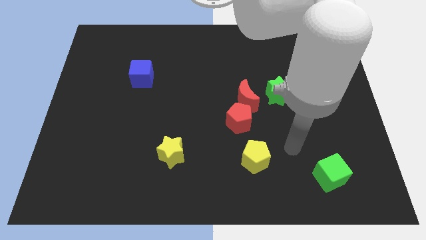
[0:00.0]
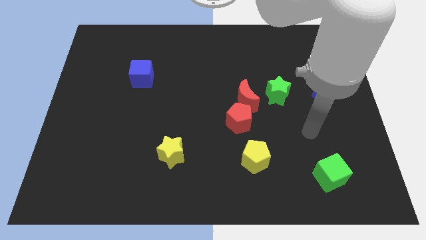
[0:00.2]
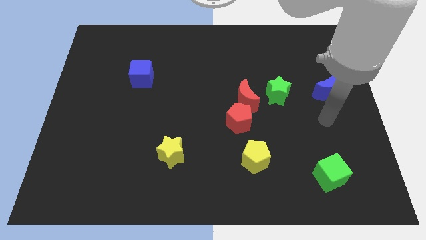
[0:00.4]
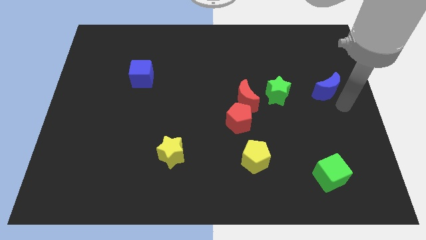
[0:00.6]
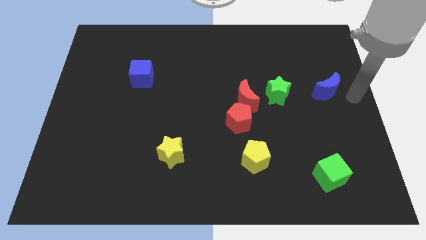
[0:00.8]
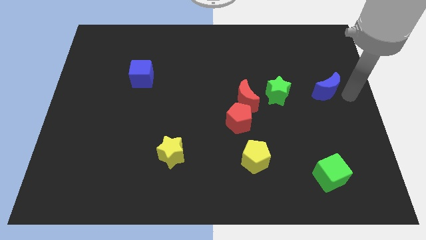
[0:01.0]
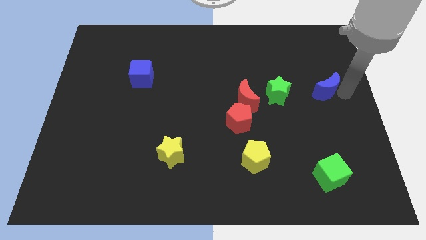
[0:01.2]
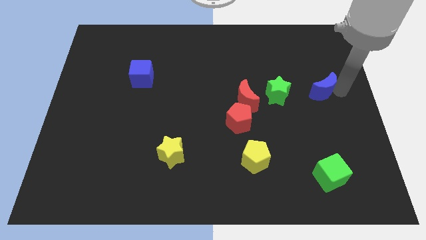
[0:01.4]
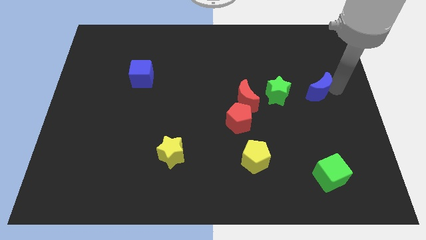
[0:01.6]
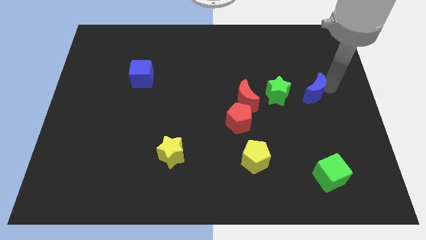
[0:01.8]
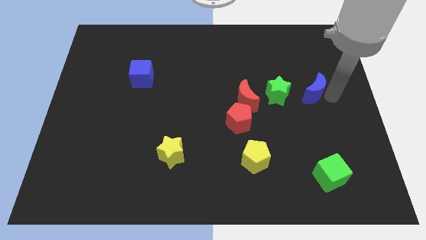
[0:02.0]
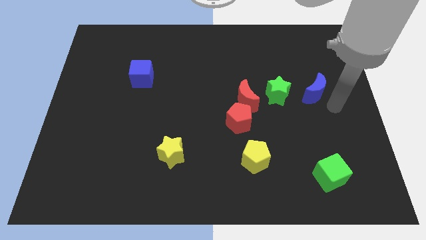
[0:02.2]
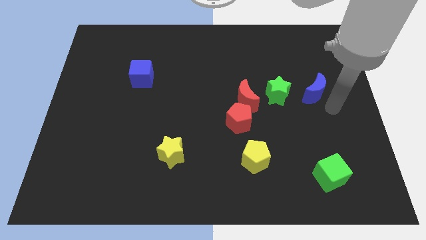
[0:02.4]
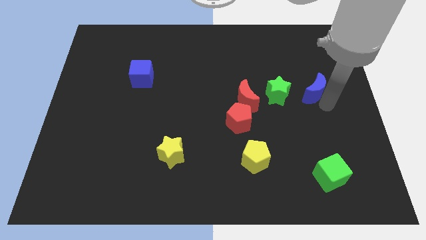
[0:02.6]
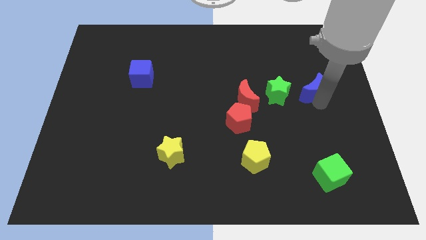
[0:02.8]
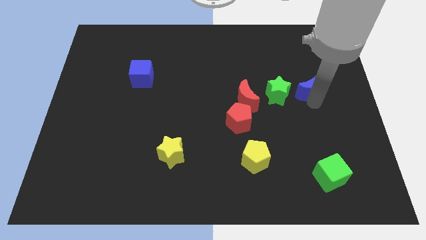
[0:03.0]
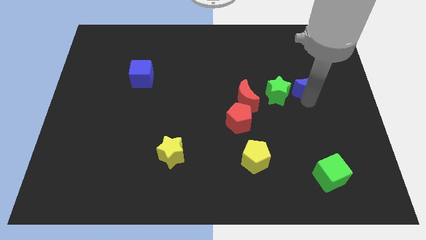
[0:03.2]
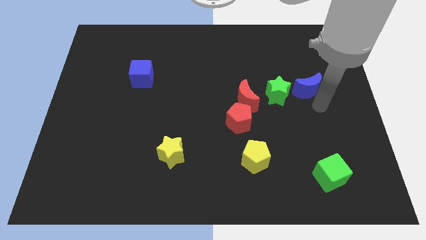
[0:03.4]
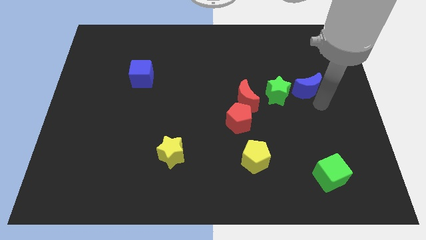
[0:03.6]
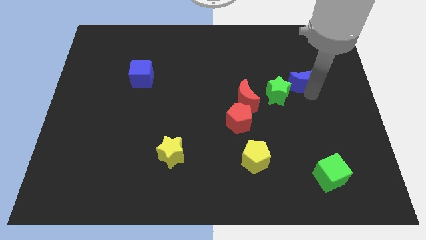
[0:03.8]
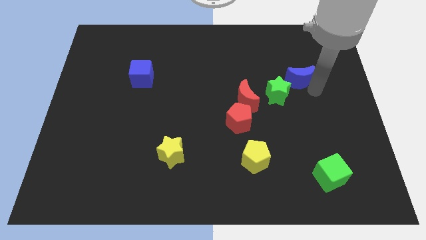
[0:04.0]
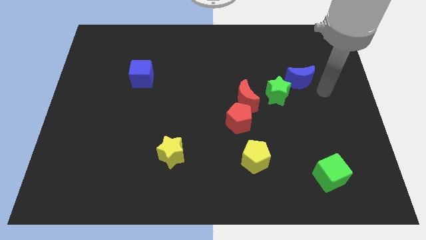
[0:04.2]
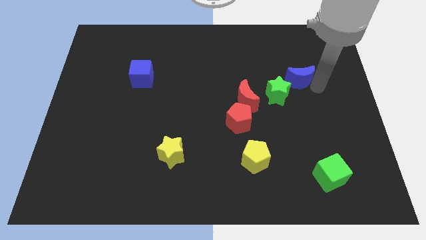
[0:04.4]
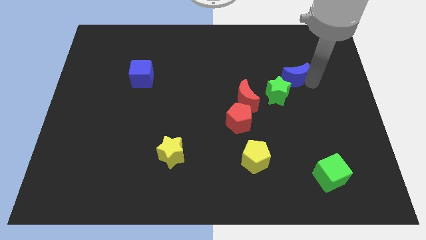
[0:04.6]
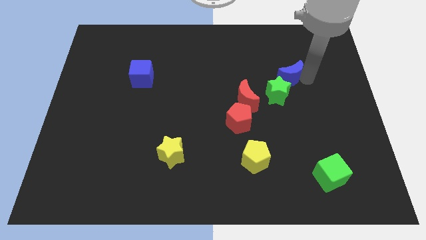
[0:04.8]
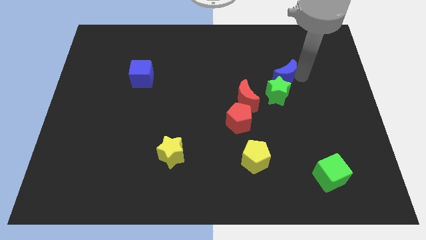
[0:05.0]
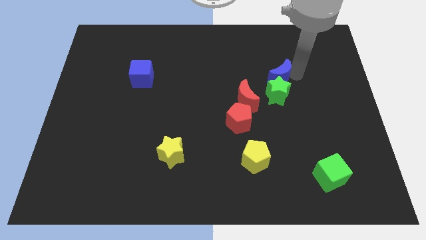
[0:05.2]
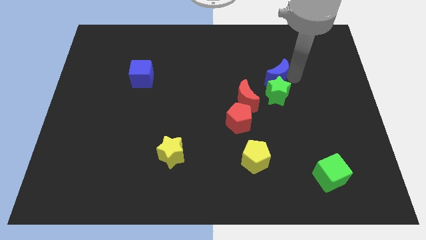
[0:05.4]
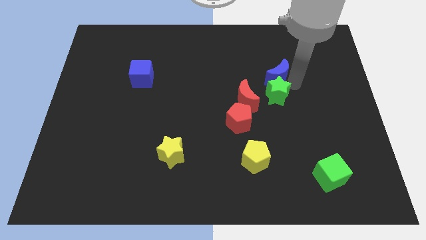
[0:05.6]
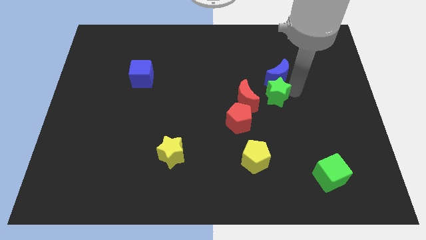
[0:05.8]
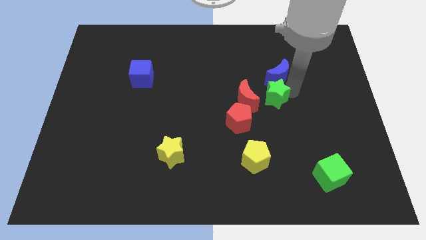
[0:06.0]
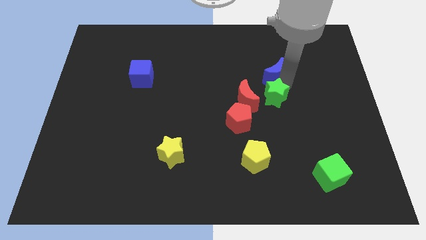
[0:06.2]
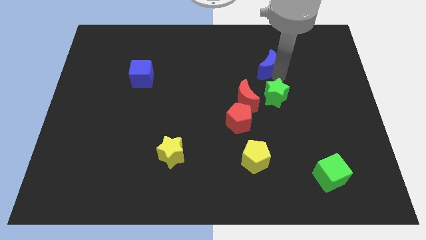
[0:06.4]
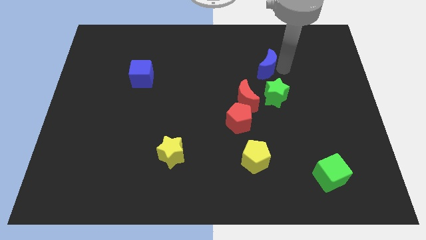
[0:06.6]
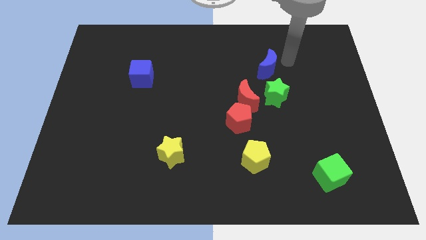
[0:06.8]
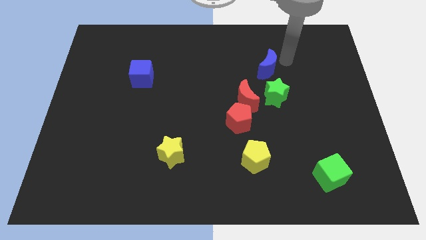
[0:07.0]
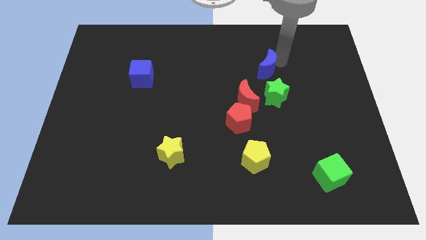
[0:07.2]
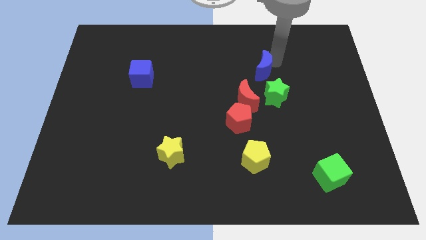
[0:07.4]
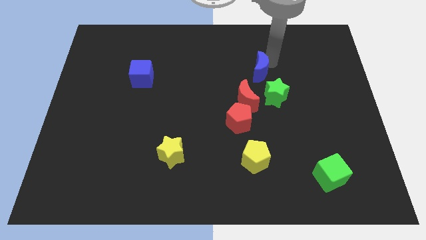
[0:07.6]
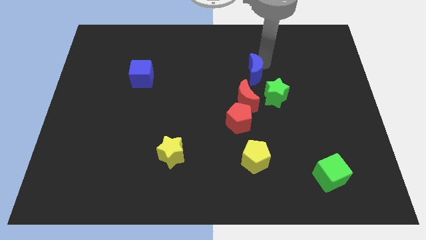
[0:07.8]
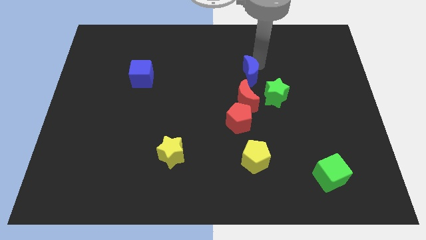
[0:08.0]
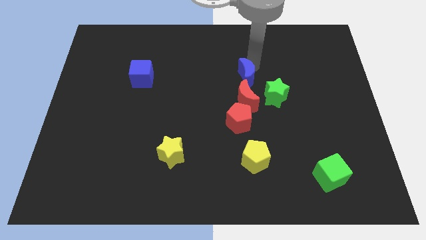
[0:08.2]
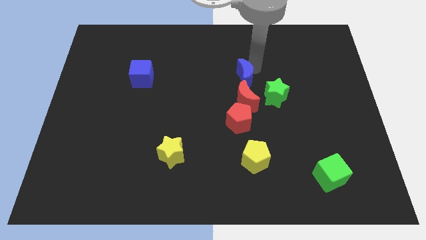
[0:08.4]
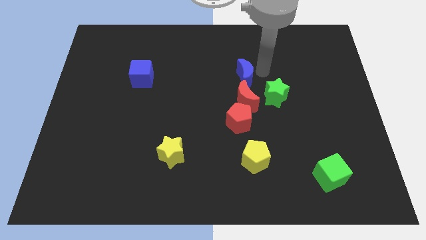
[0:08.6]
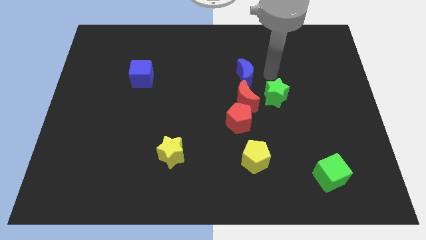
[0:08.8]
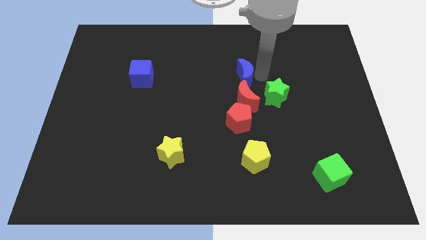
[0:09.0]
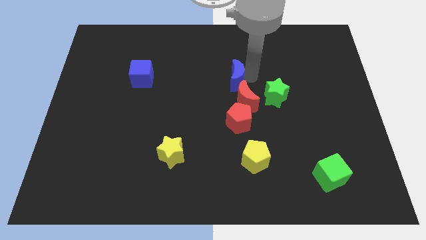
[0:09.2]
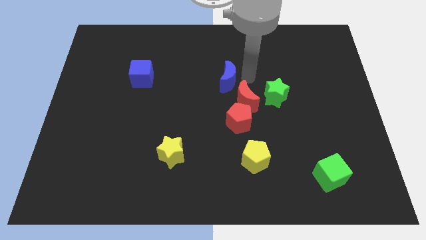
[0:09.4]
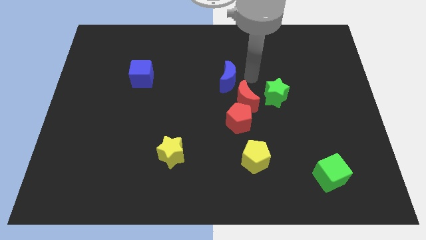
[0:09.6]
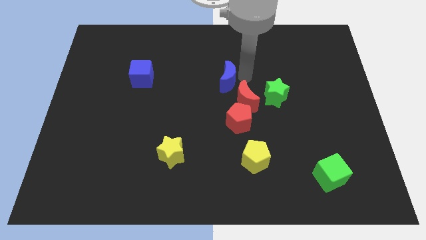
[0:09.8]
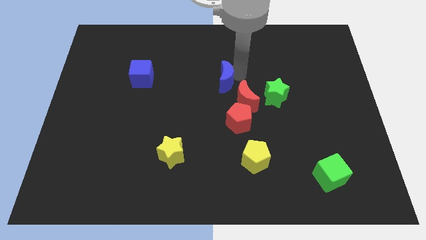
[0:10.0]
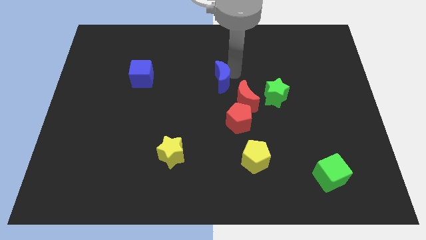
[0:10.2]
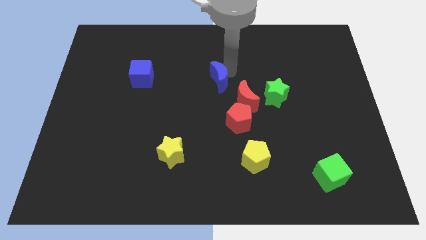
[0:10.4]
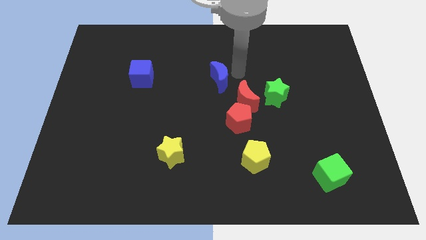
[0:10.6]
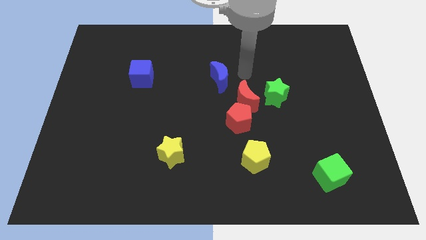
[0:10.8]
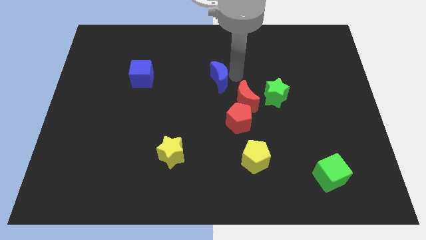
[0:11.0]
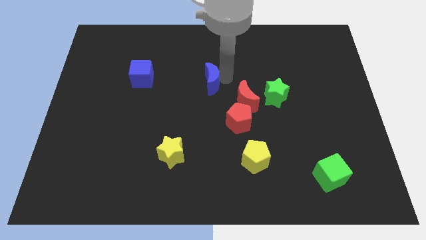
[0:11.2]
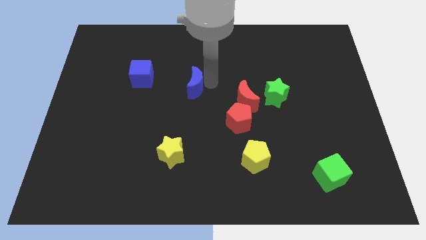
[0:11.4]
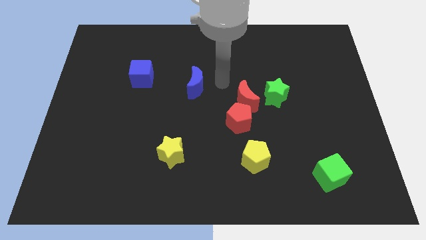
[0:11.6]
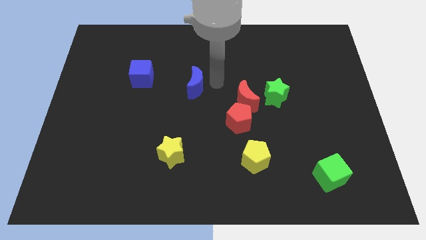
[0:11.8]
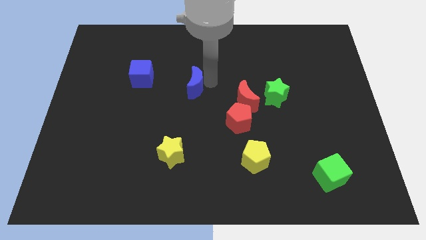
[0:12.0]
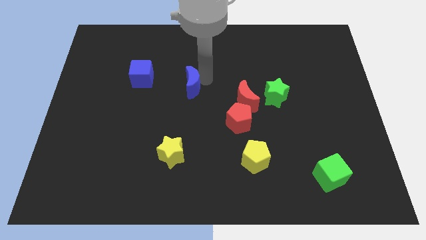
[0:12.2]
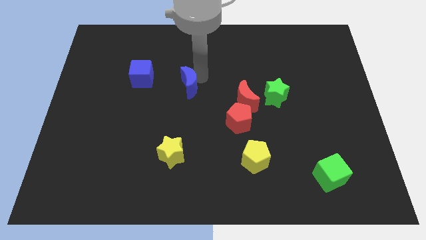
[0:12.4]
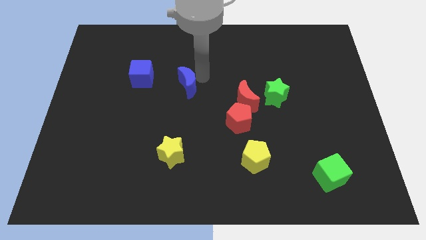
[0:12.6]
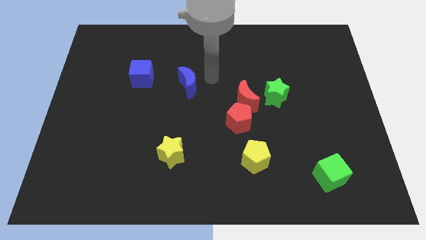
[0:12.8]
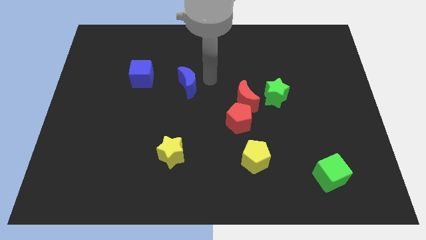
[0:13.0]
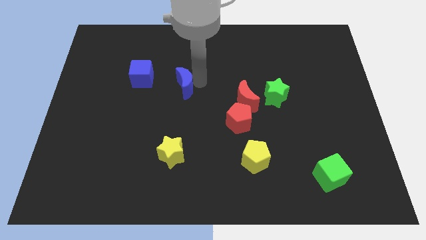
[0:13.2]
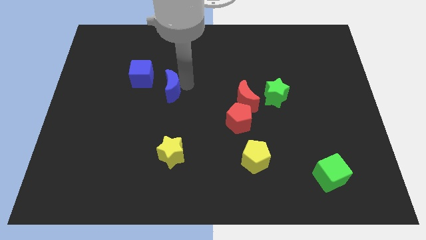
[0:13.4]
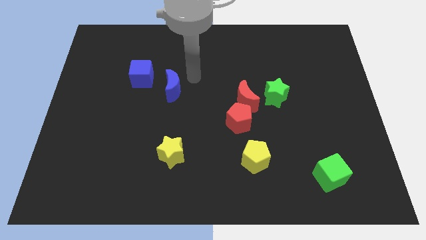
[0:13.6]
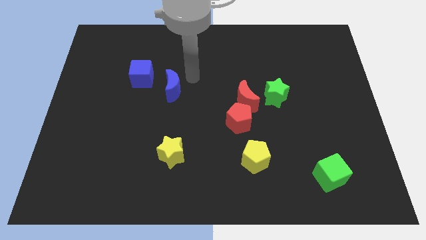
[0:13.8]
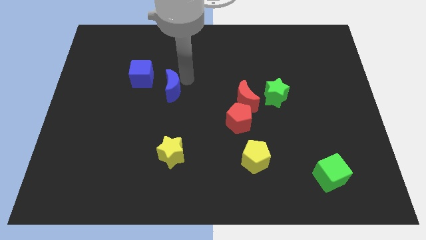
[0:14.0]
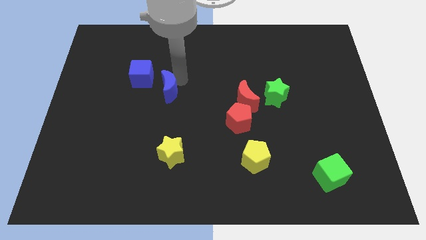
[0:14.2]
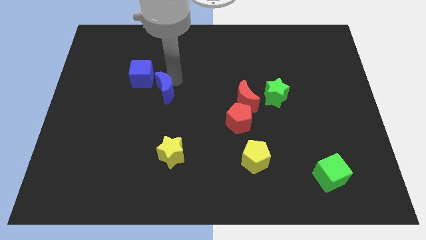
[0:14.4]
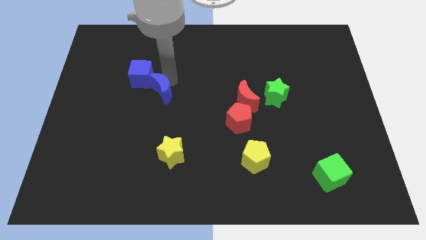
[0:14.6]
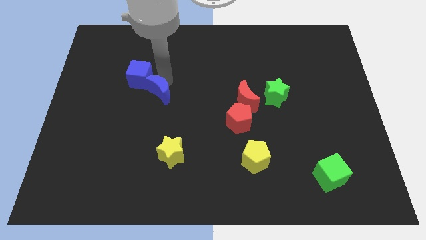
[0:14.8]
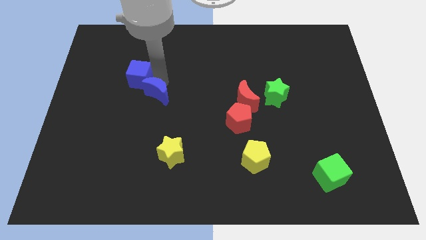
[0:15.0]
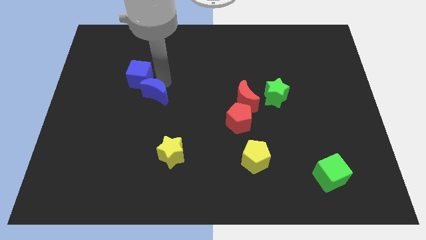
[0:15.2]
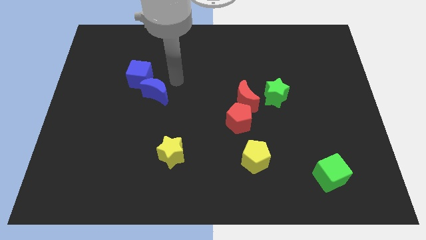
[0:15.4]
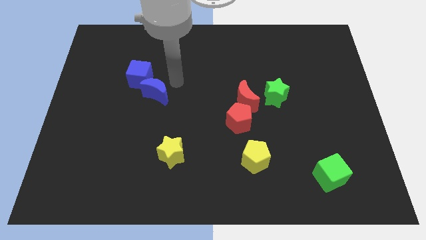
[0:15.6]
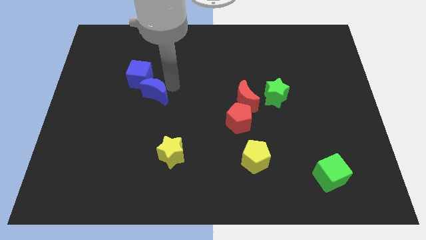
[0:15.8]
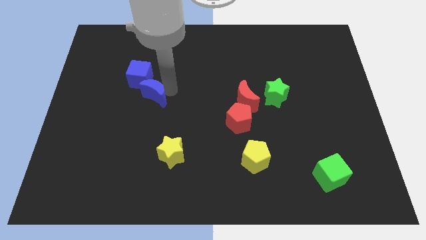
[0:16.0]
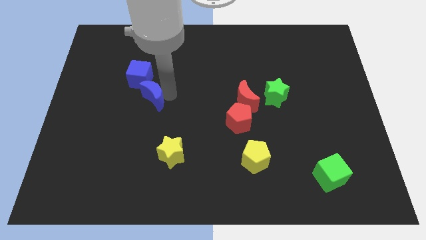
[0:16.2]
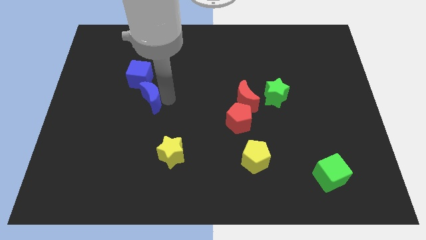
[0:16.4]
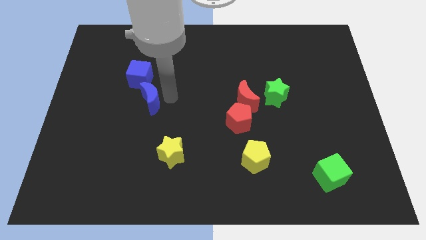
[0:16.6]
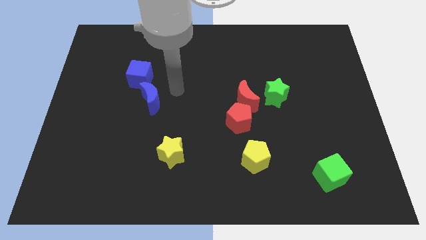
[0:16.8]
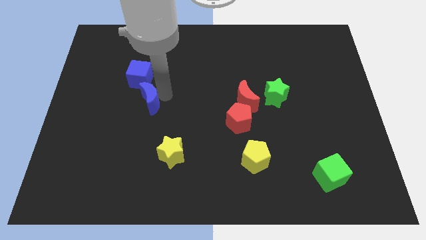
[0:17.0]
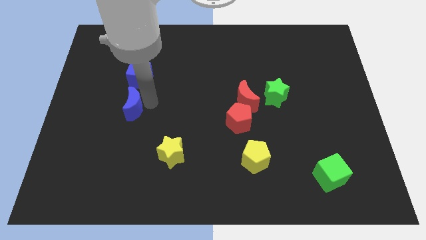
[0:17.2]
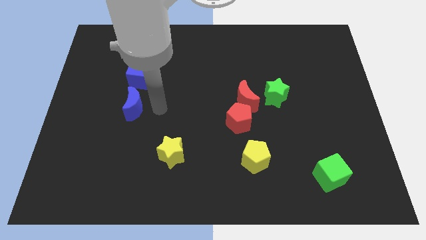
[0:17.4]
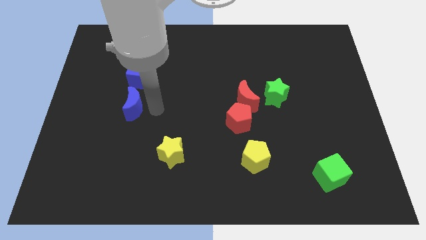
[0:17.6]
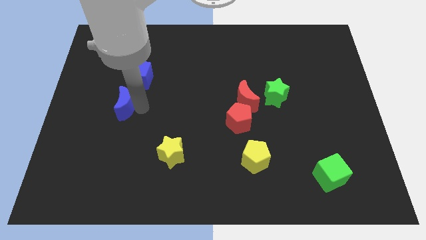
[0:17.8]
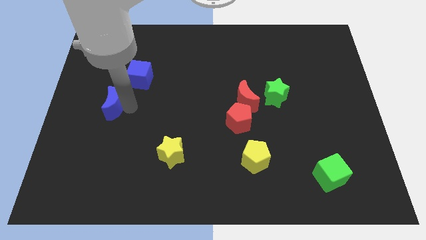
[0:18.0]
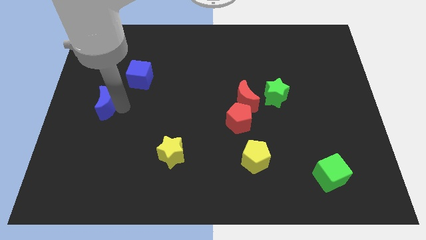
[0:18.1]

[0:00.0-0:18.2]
put the blue moon to the left side of the board
